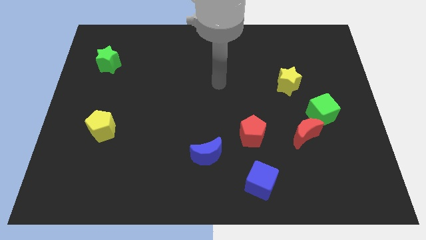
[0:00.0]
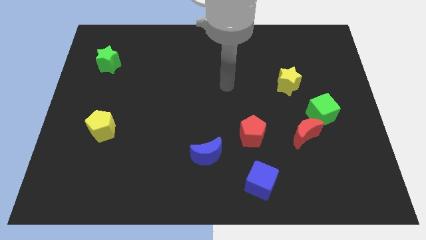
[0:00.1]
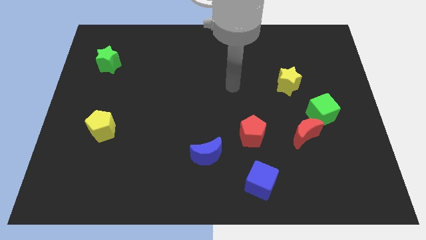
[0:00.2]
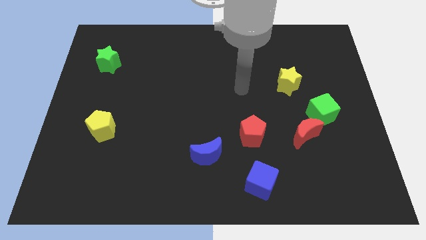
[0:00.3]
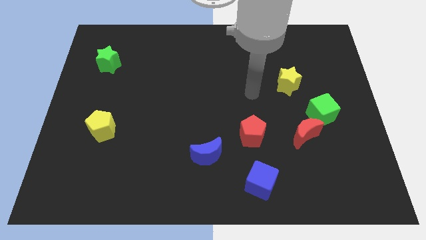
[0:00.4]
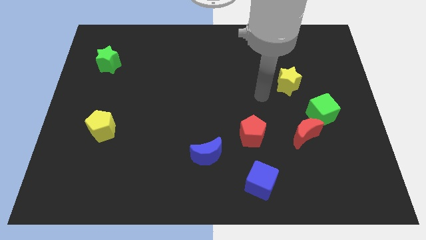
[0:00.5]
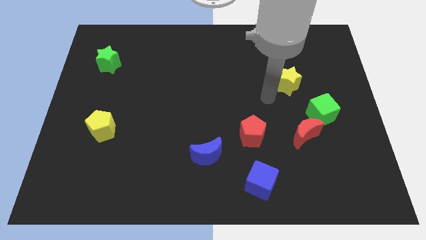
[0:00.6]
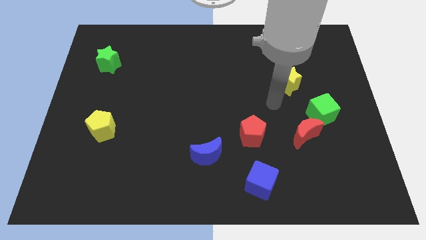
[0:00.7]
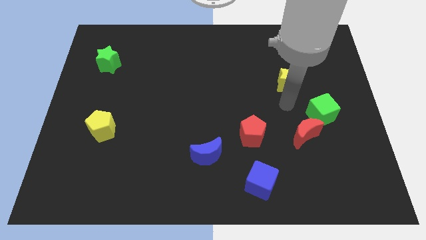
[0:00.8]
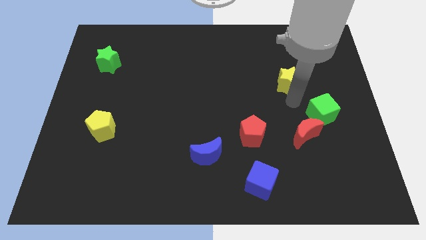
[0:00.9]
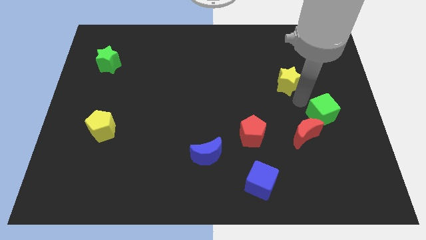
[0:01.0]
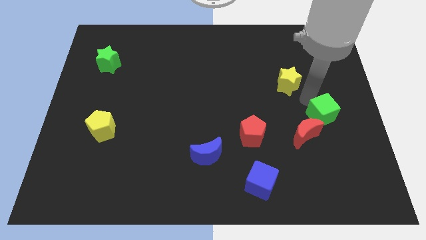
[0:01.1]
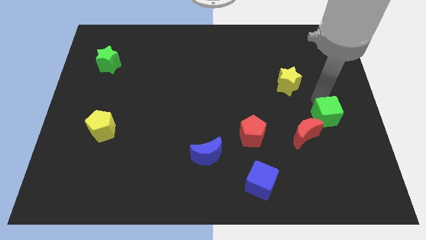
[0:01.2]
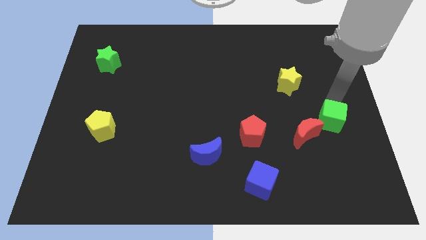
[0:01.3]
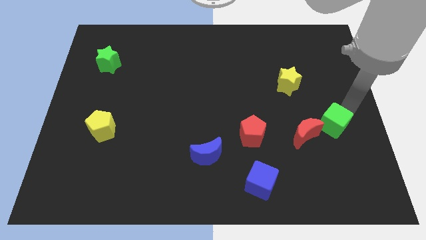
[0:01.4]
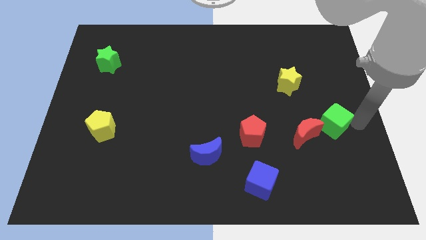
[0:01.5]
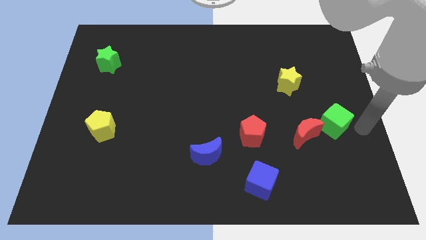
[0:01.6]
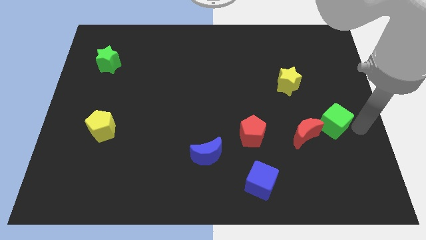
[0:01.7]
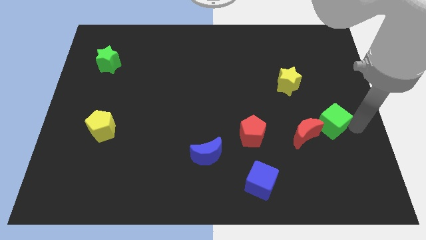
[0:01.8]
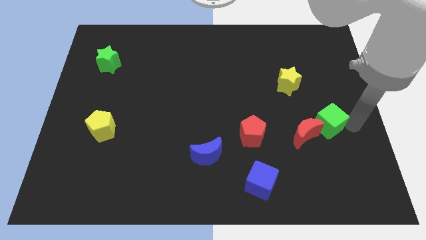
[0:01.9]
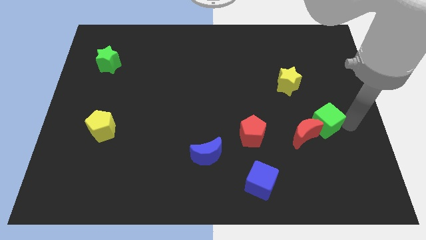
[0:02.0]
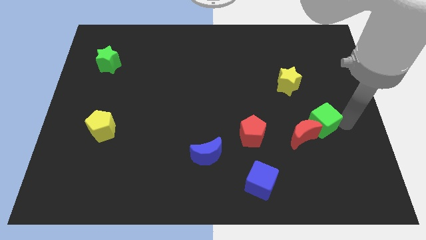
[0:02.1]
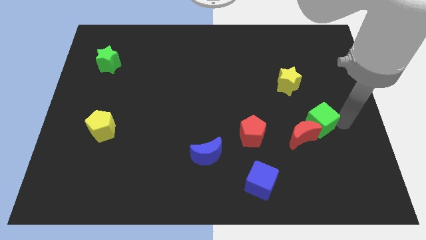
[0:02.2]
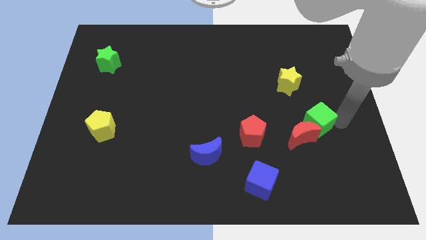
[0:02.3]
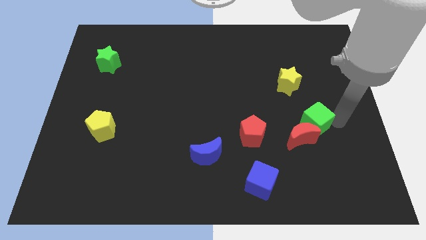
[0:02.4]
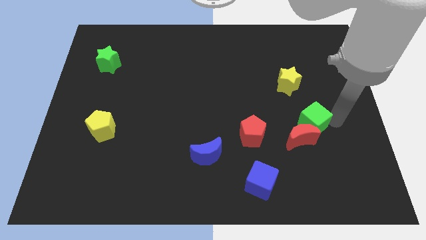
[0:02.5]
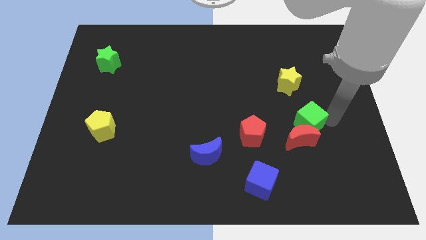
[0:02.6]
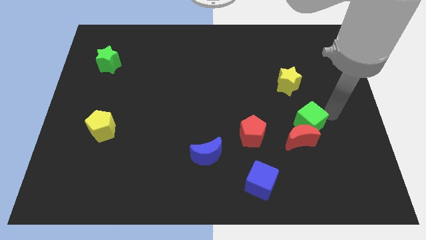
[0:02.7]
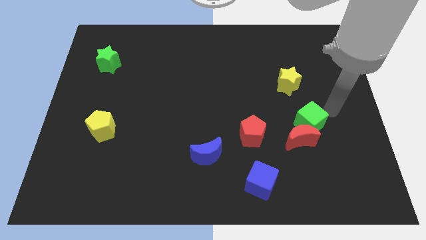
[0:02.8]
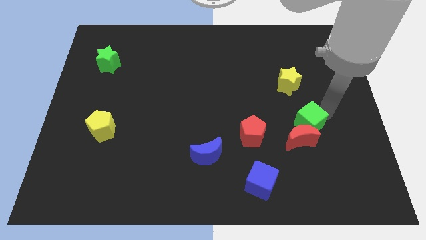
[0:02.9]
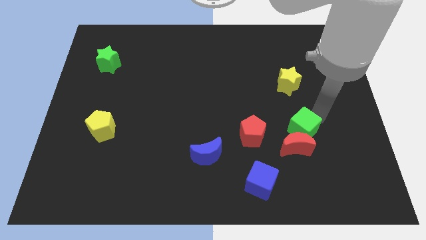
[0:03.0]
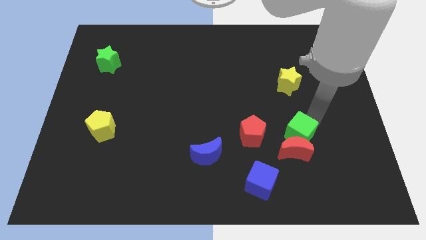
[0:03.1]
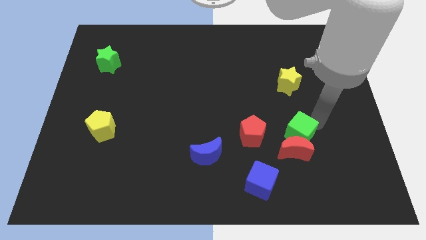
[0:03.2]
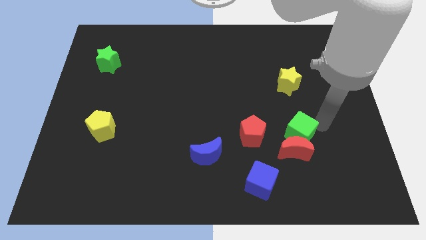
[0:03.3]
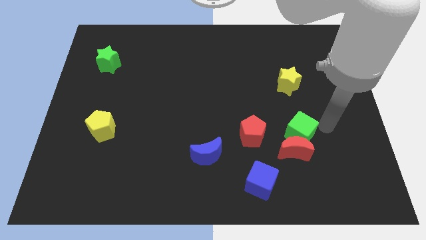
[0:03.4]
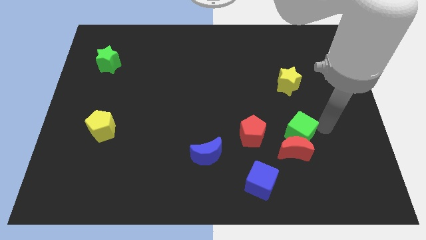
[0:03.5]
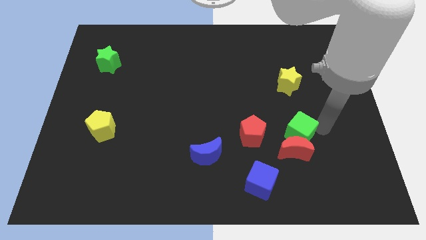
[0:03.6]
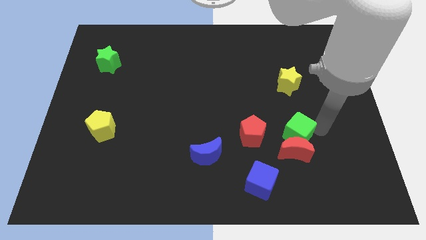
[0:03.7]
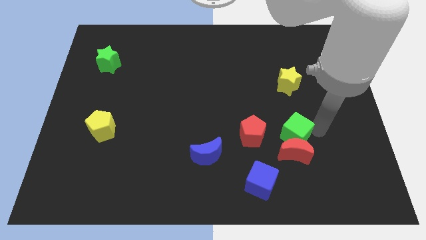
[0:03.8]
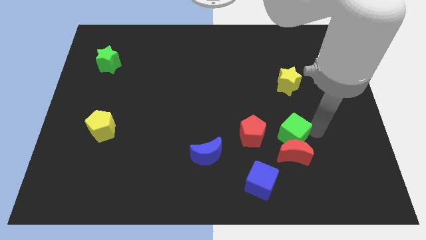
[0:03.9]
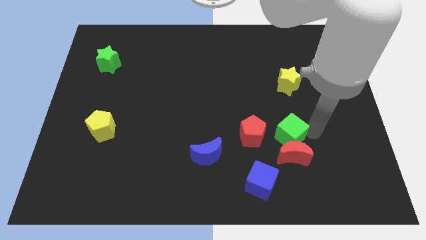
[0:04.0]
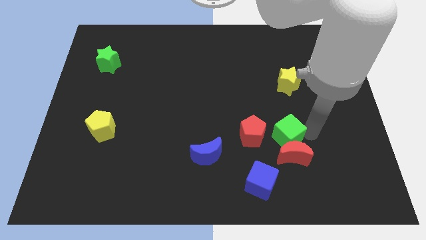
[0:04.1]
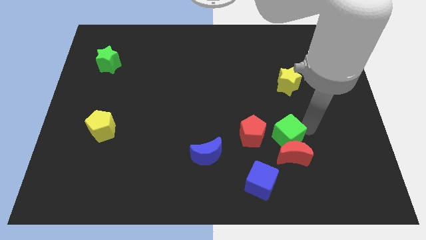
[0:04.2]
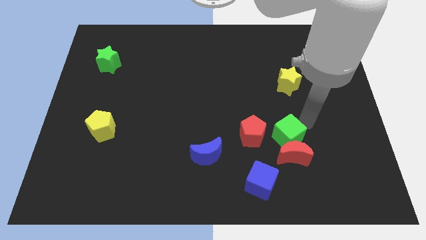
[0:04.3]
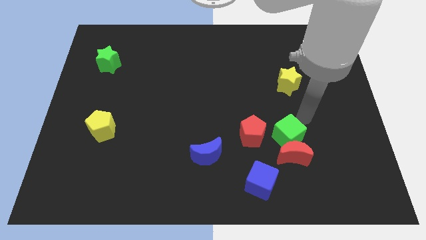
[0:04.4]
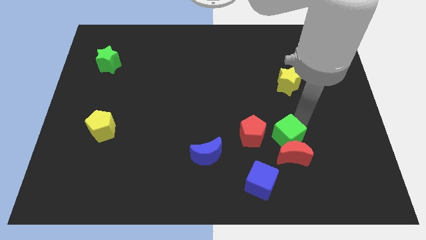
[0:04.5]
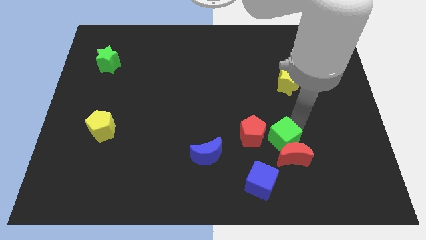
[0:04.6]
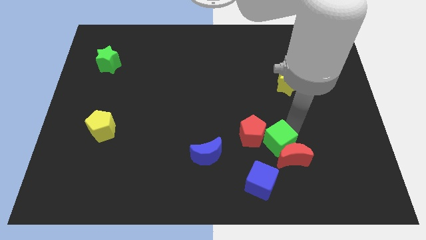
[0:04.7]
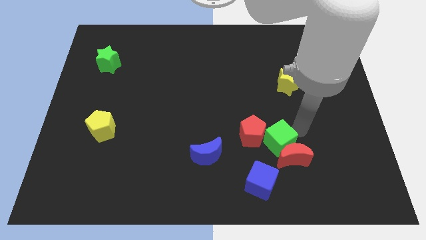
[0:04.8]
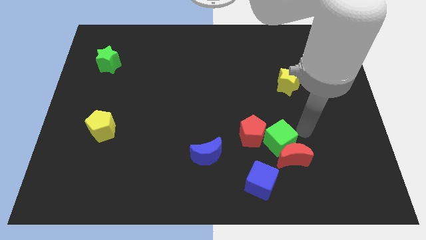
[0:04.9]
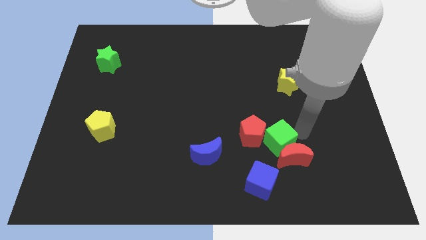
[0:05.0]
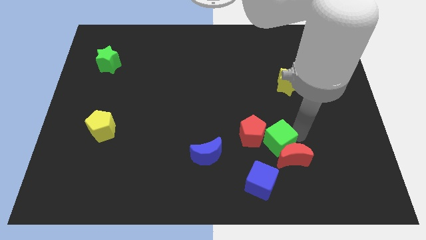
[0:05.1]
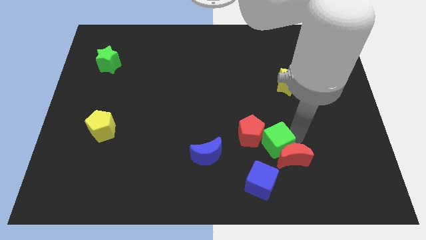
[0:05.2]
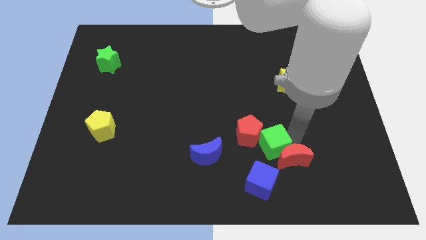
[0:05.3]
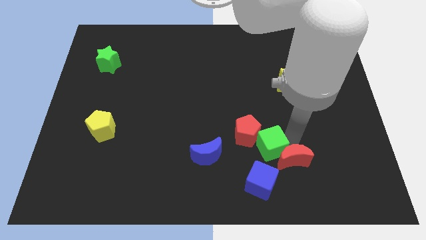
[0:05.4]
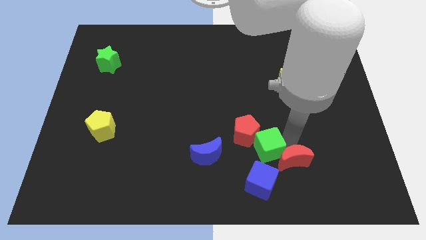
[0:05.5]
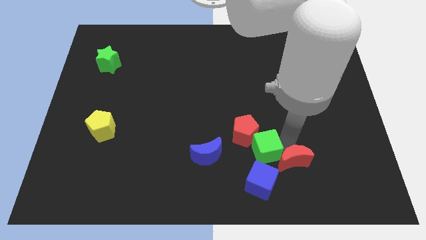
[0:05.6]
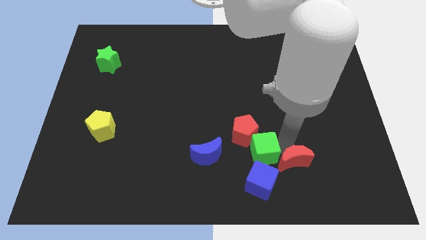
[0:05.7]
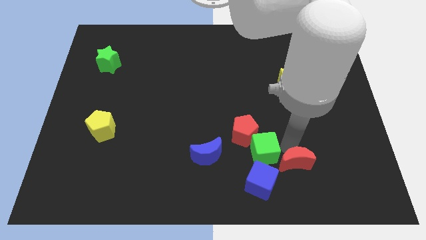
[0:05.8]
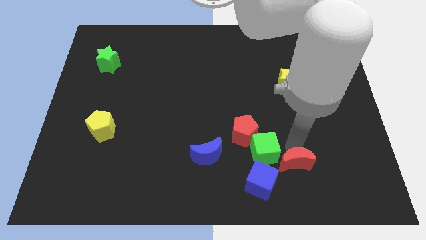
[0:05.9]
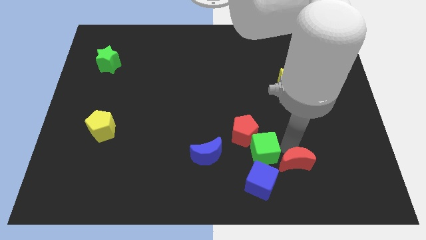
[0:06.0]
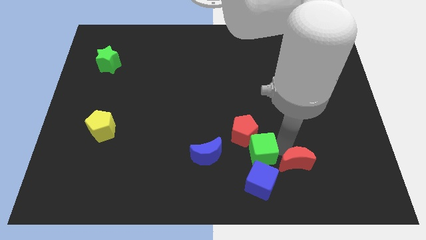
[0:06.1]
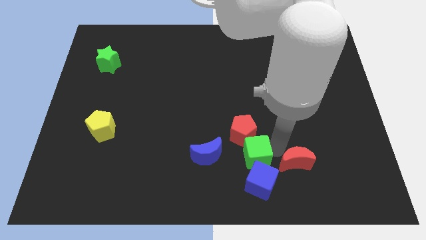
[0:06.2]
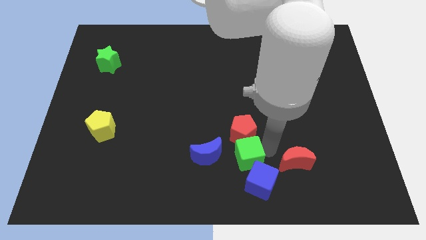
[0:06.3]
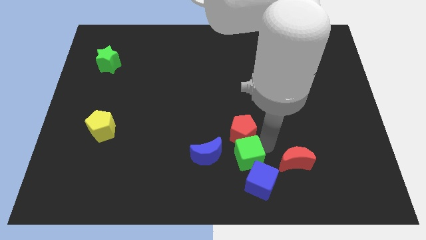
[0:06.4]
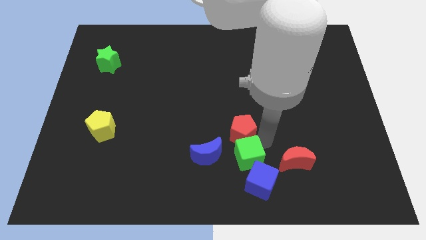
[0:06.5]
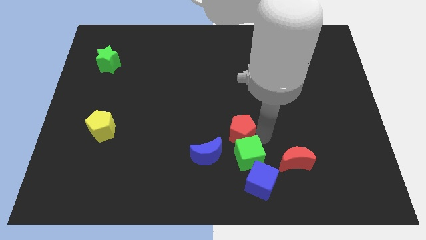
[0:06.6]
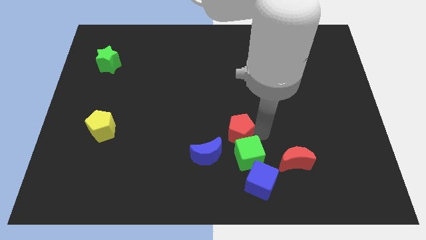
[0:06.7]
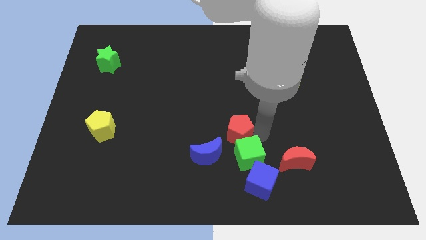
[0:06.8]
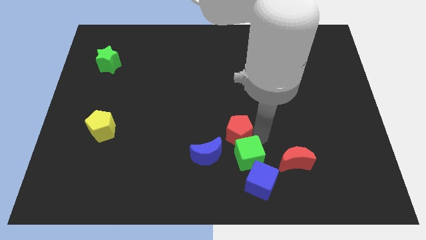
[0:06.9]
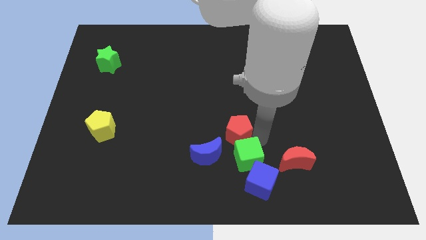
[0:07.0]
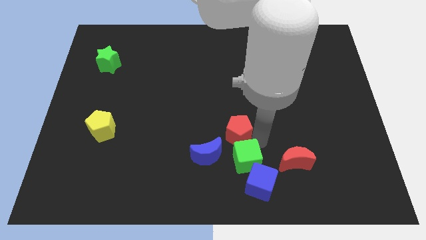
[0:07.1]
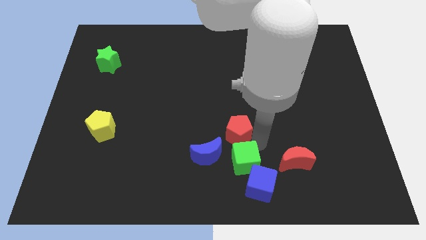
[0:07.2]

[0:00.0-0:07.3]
put the green cube to the bottom side
